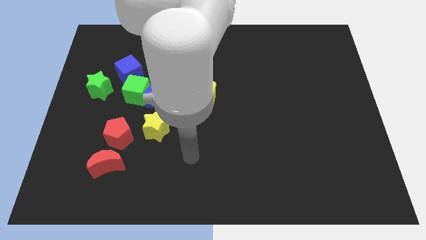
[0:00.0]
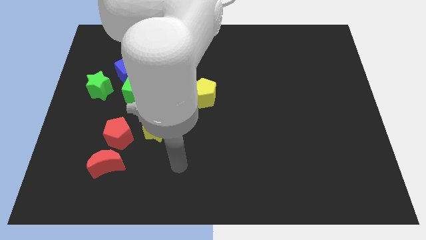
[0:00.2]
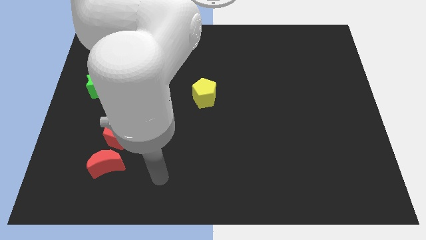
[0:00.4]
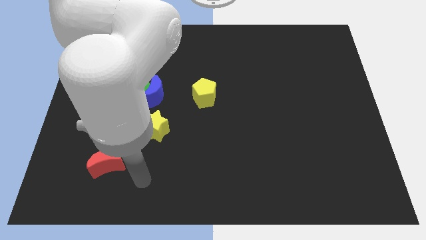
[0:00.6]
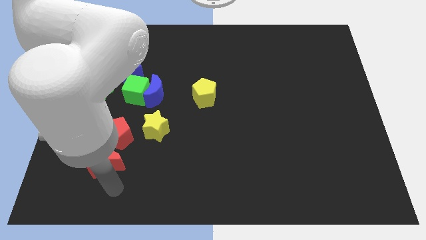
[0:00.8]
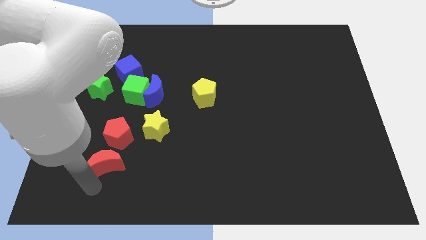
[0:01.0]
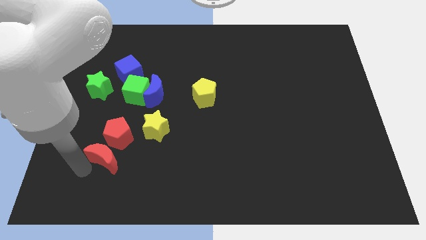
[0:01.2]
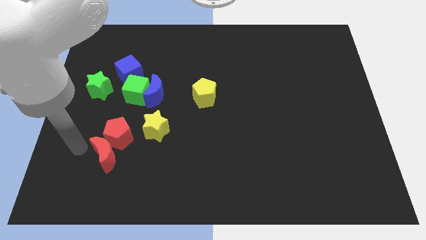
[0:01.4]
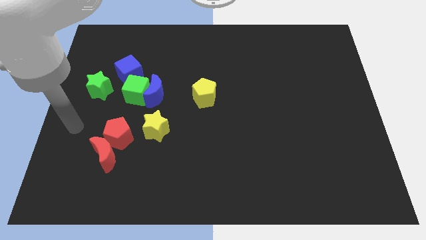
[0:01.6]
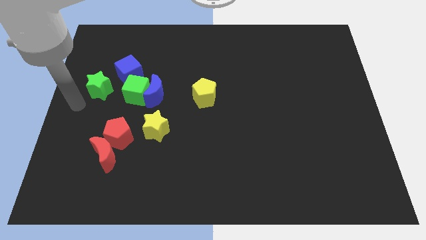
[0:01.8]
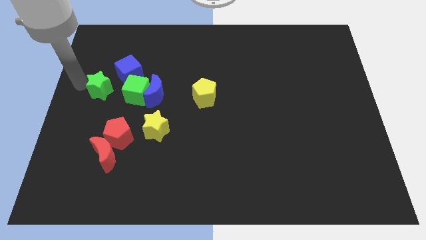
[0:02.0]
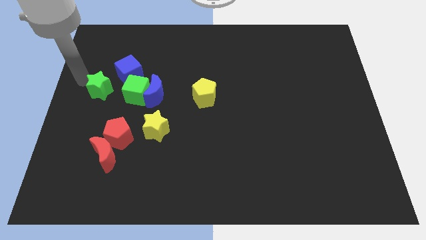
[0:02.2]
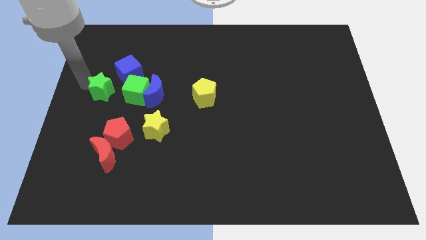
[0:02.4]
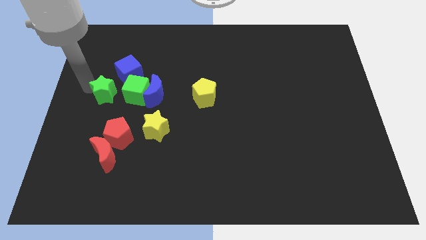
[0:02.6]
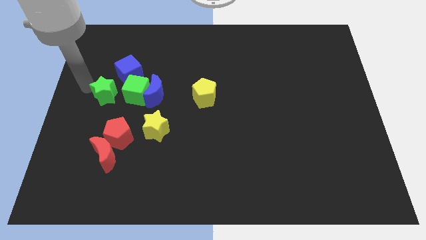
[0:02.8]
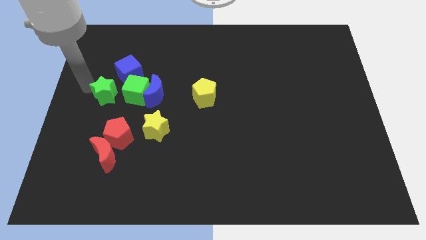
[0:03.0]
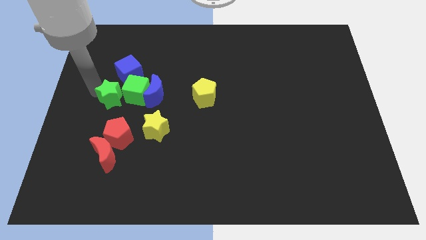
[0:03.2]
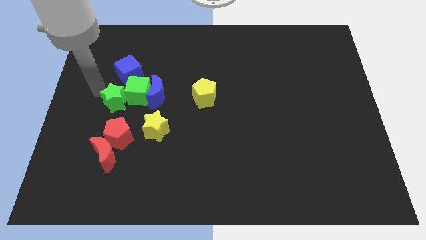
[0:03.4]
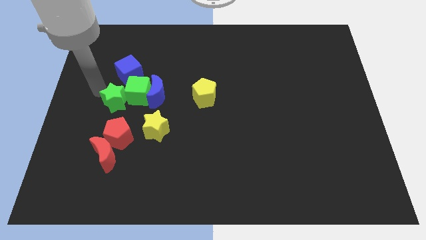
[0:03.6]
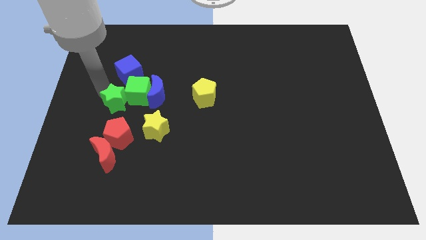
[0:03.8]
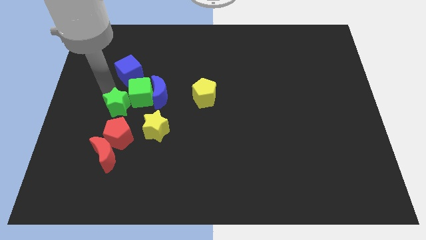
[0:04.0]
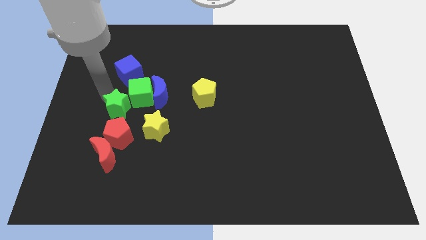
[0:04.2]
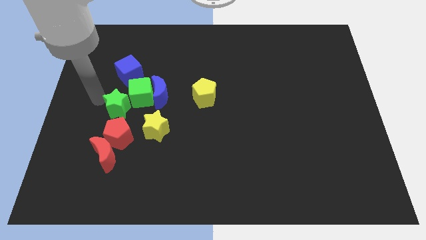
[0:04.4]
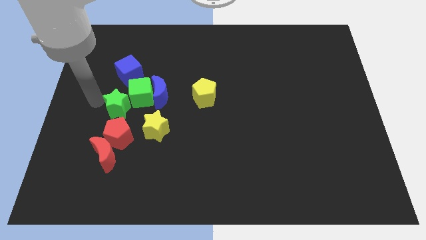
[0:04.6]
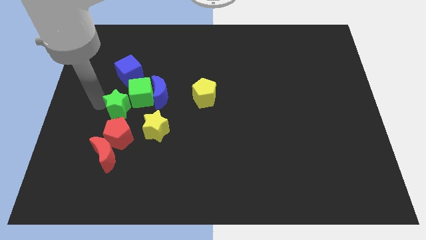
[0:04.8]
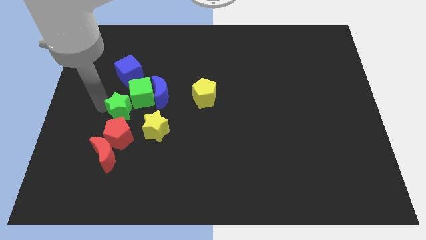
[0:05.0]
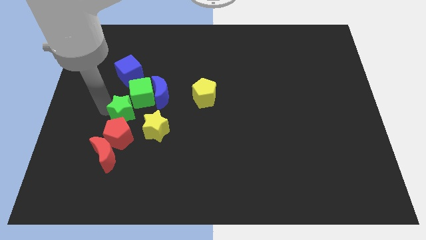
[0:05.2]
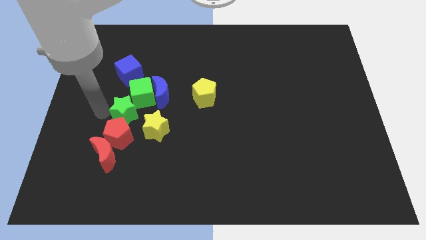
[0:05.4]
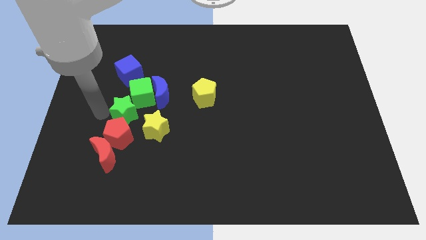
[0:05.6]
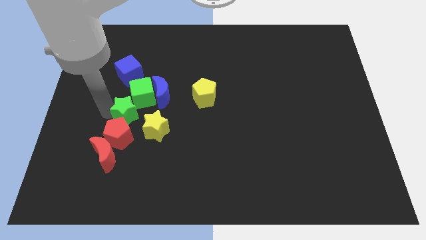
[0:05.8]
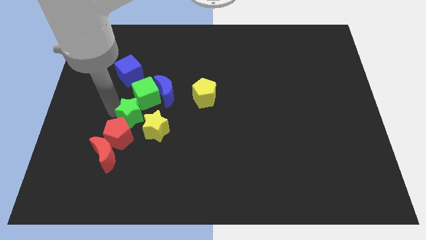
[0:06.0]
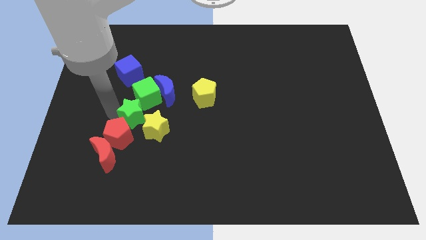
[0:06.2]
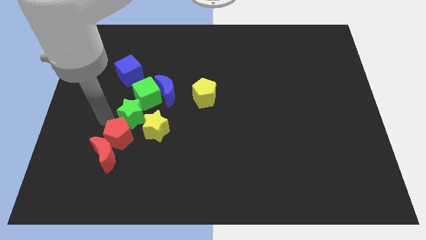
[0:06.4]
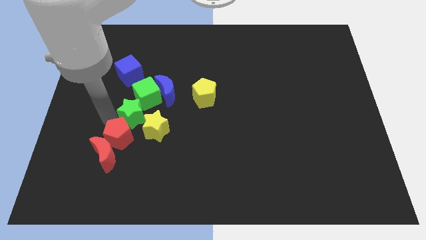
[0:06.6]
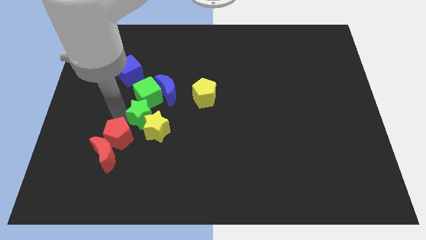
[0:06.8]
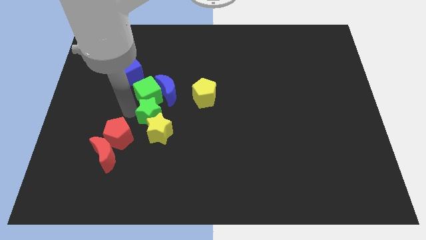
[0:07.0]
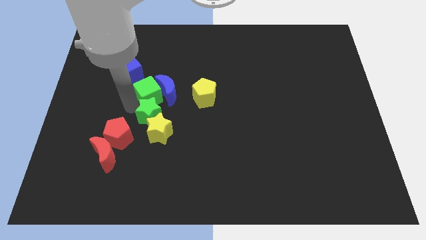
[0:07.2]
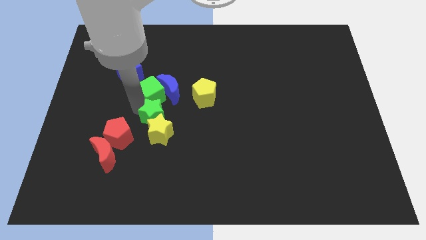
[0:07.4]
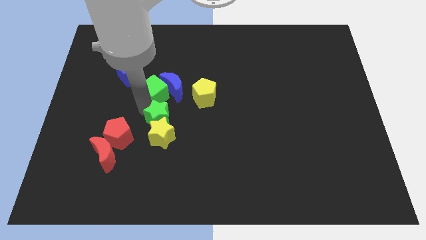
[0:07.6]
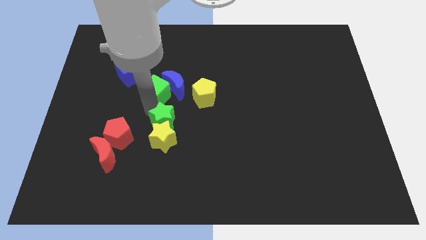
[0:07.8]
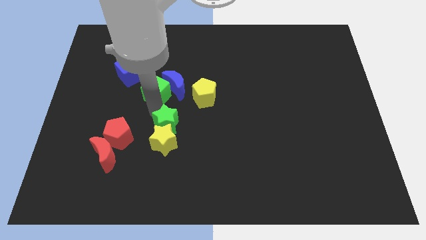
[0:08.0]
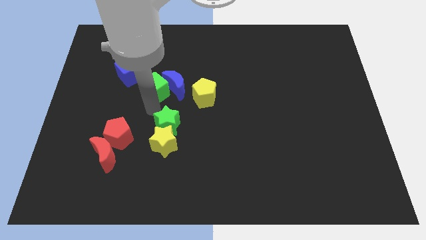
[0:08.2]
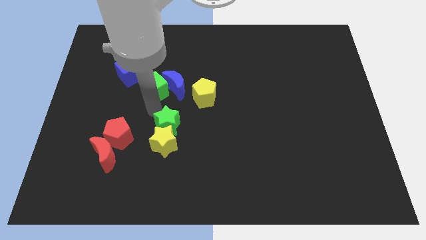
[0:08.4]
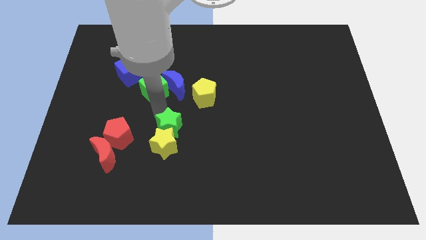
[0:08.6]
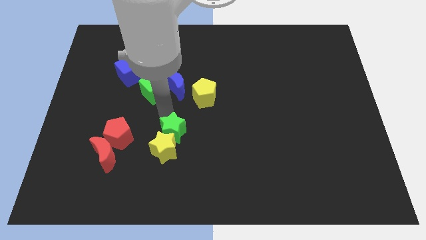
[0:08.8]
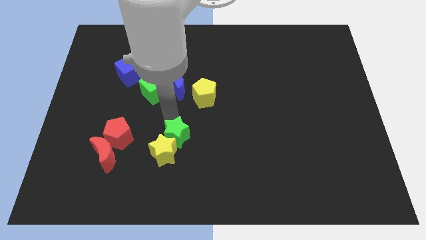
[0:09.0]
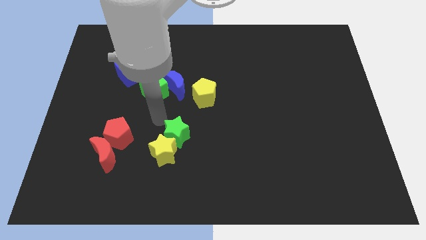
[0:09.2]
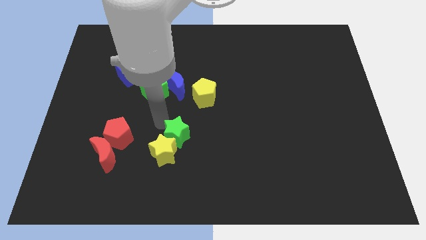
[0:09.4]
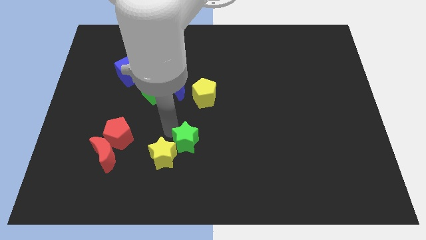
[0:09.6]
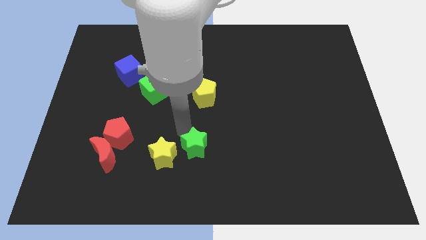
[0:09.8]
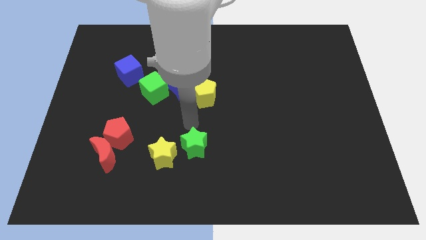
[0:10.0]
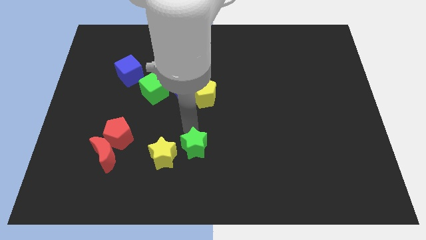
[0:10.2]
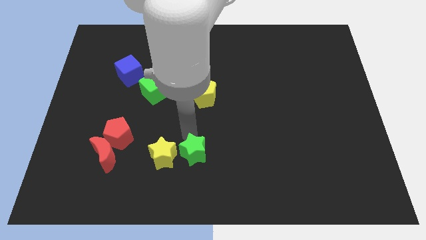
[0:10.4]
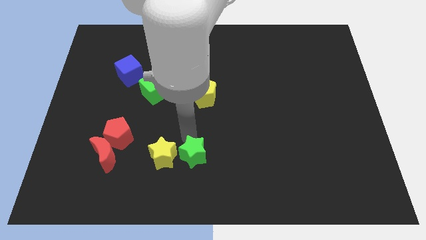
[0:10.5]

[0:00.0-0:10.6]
move the green star to the bottom
